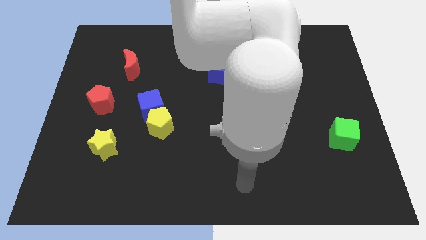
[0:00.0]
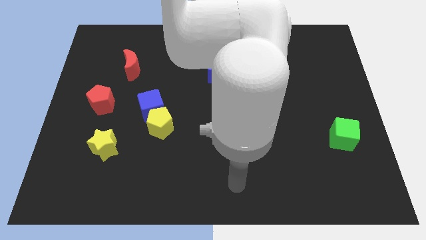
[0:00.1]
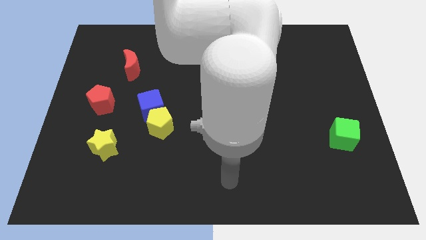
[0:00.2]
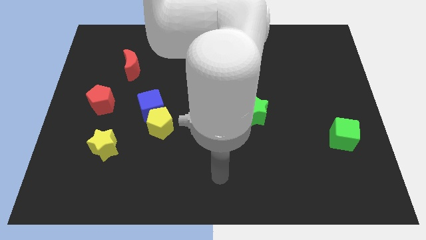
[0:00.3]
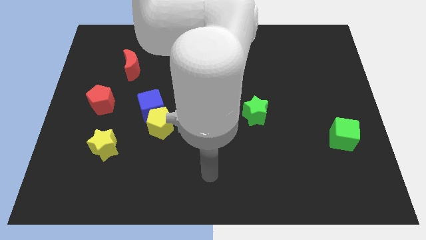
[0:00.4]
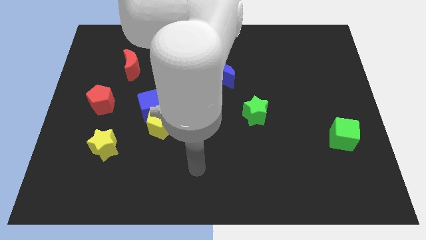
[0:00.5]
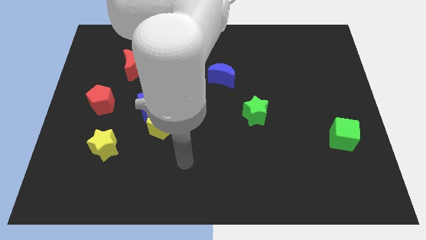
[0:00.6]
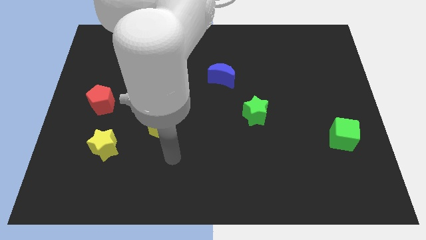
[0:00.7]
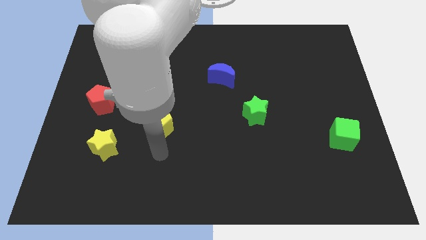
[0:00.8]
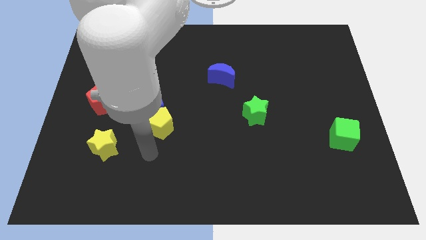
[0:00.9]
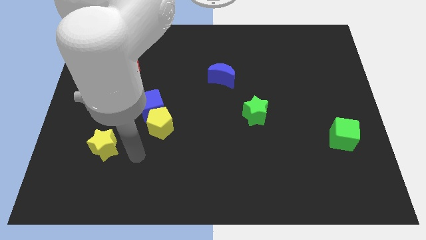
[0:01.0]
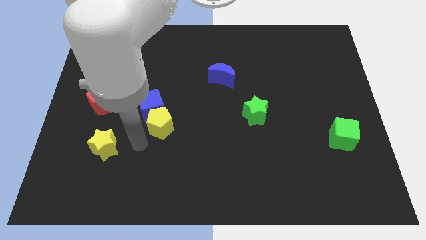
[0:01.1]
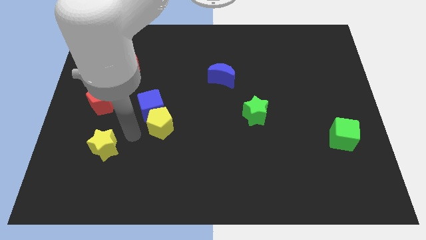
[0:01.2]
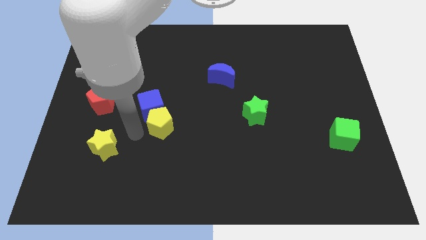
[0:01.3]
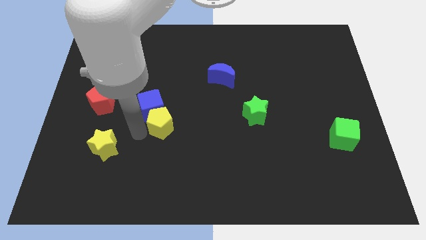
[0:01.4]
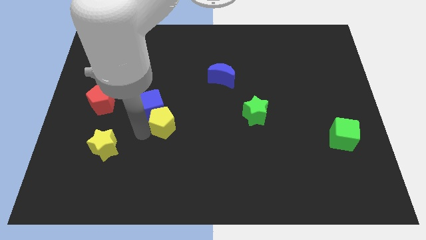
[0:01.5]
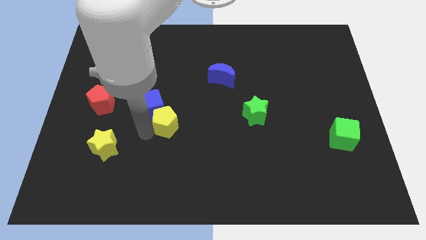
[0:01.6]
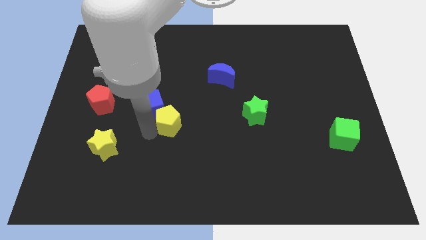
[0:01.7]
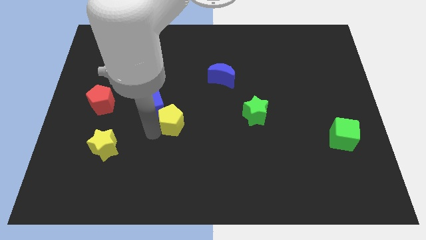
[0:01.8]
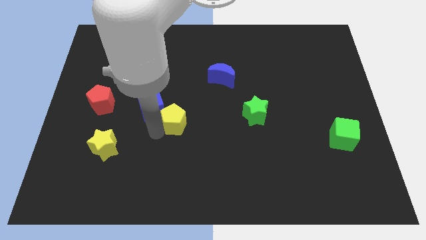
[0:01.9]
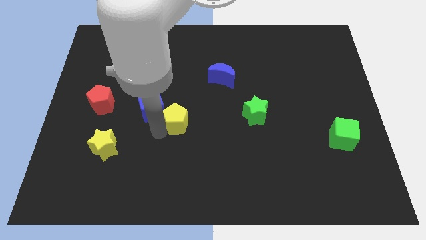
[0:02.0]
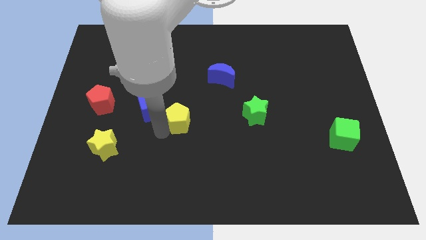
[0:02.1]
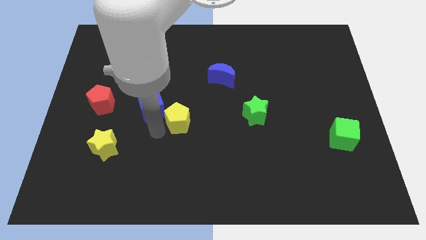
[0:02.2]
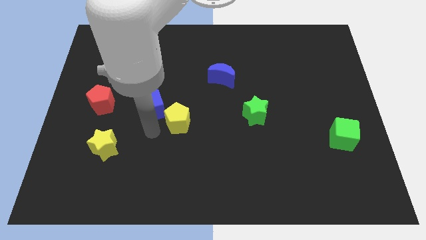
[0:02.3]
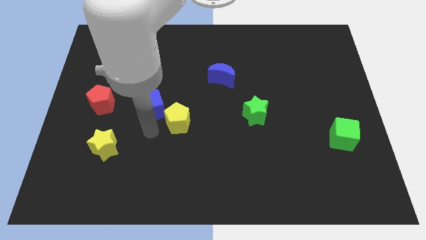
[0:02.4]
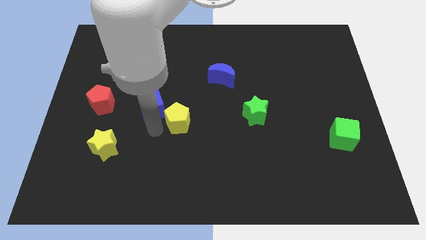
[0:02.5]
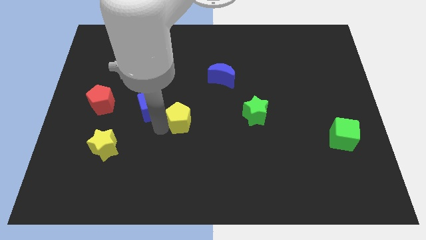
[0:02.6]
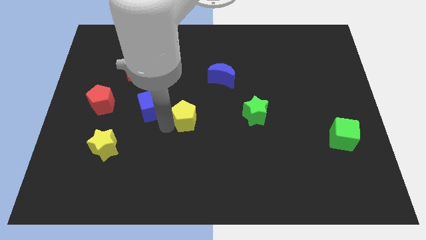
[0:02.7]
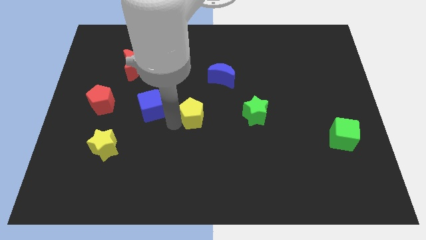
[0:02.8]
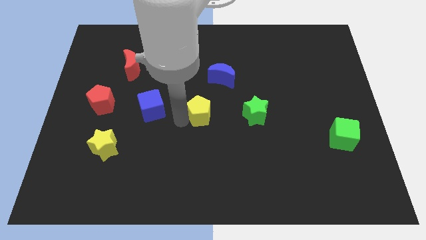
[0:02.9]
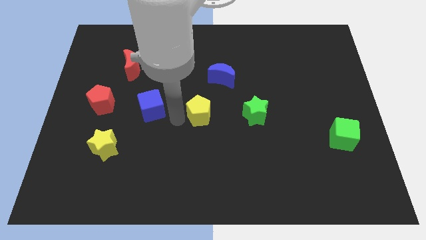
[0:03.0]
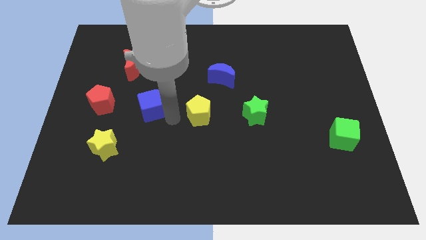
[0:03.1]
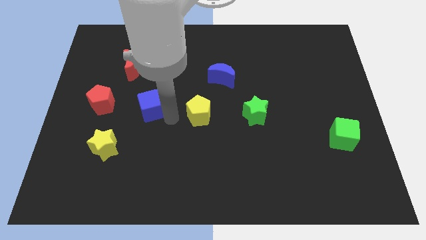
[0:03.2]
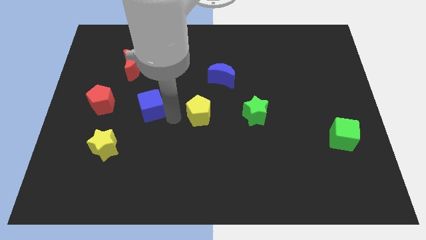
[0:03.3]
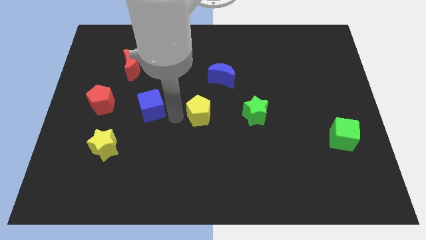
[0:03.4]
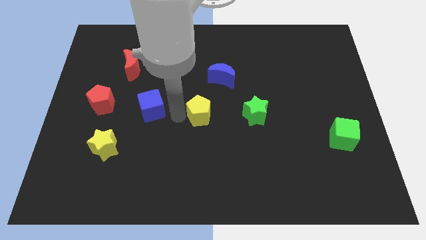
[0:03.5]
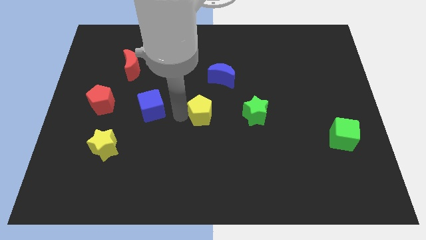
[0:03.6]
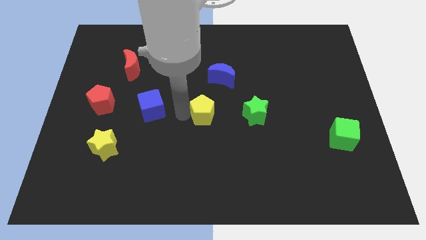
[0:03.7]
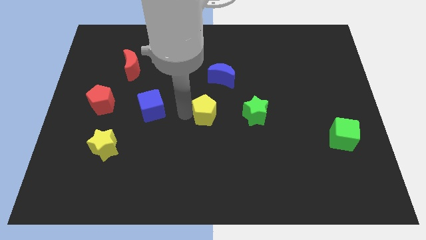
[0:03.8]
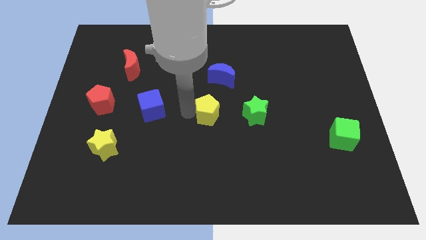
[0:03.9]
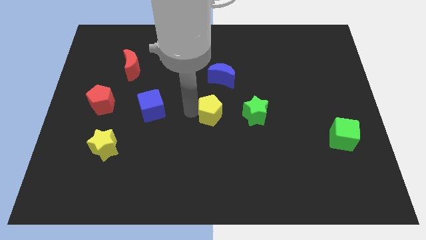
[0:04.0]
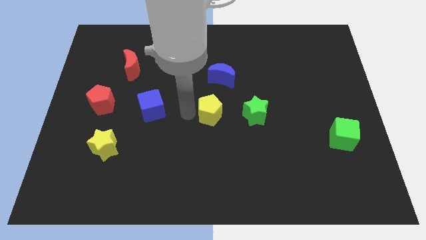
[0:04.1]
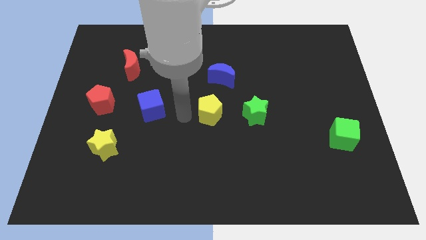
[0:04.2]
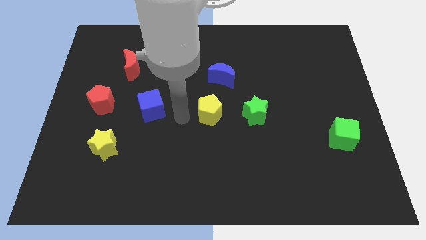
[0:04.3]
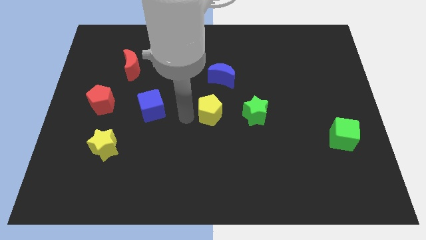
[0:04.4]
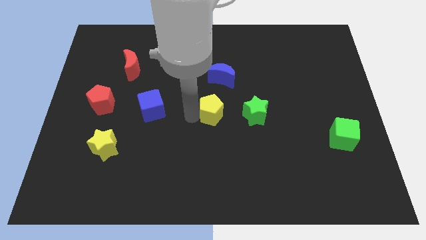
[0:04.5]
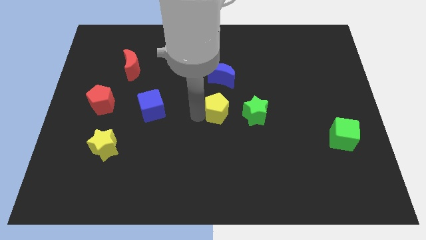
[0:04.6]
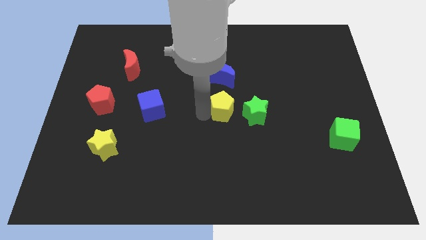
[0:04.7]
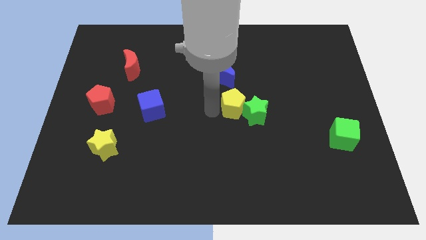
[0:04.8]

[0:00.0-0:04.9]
push the yellow pentagon to the green star

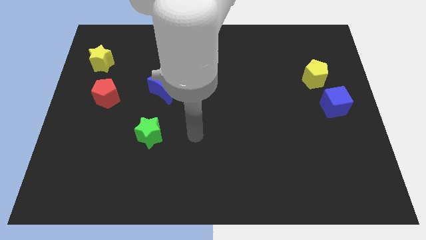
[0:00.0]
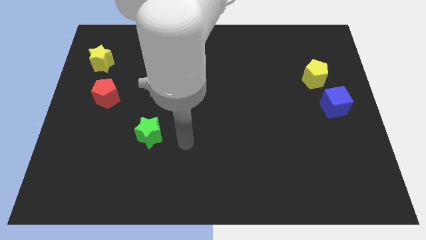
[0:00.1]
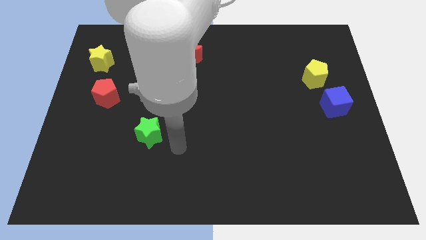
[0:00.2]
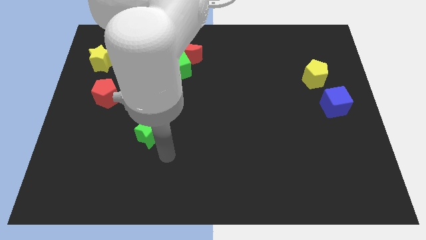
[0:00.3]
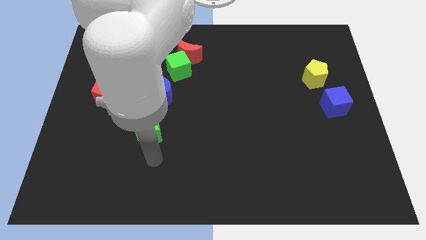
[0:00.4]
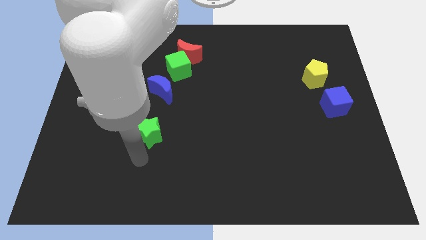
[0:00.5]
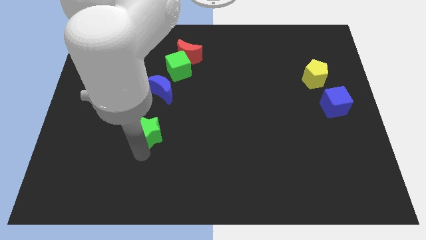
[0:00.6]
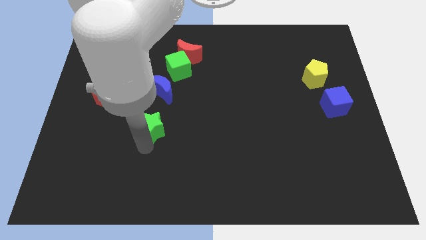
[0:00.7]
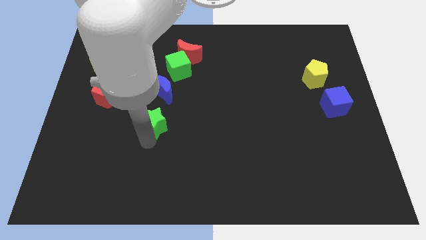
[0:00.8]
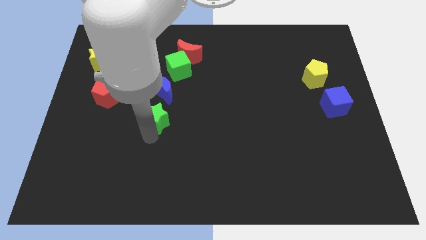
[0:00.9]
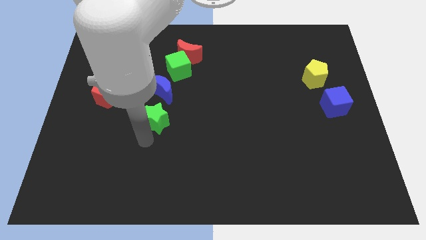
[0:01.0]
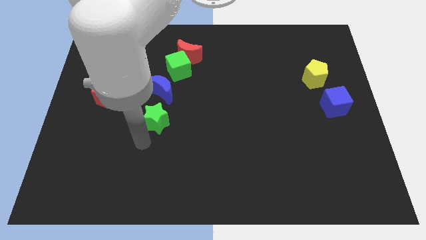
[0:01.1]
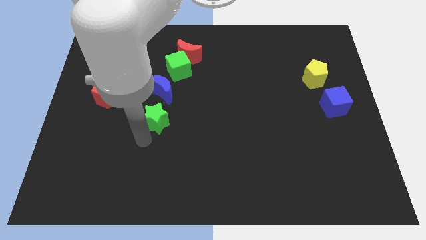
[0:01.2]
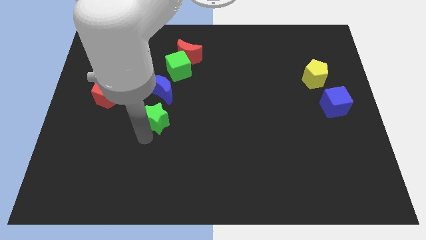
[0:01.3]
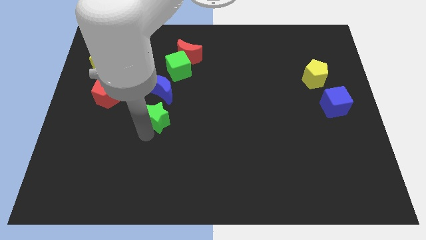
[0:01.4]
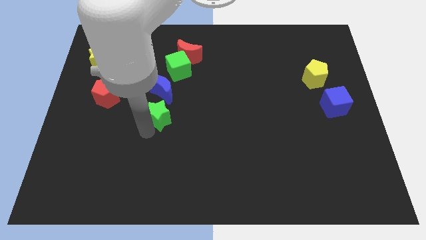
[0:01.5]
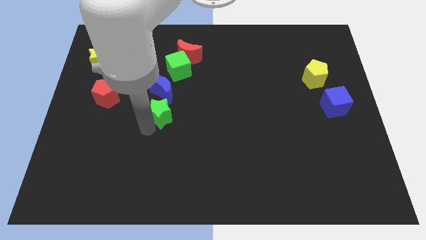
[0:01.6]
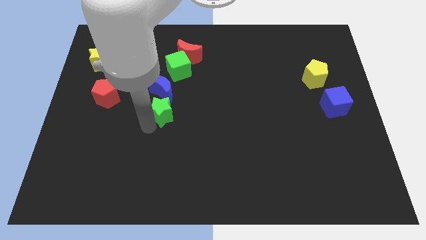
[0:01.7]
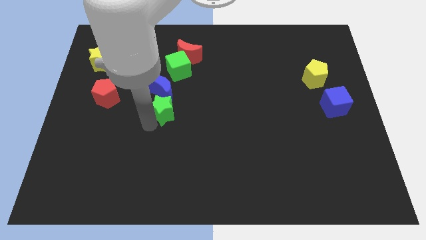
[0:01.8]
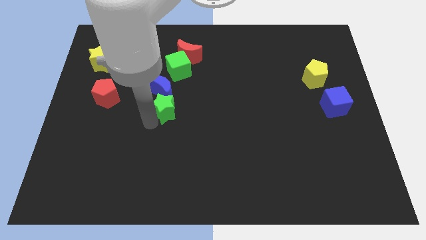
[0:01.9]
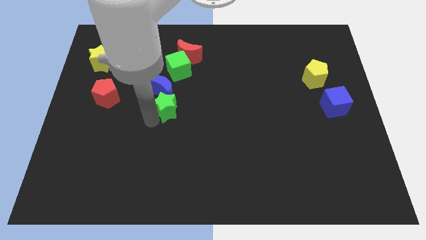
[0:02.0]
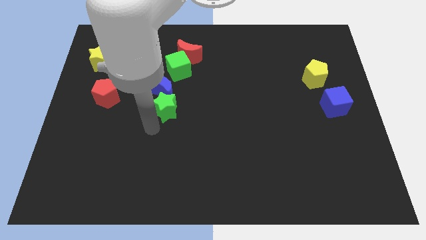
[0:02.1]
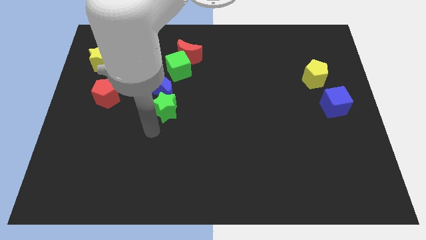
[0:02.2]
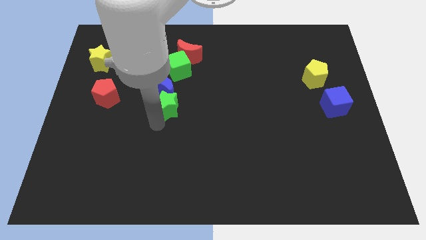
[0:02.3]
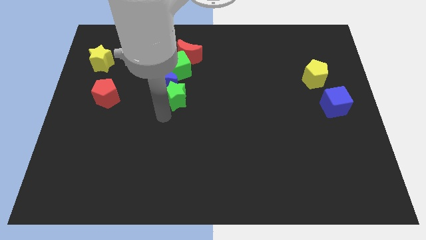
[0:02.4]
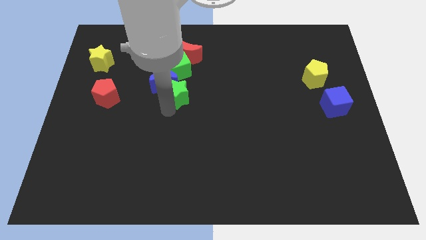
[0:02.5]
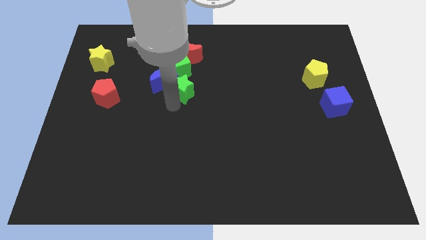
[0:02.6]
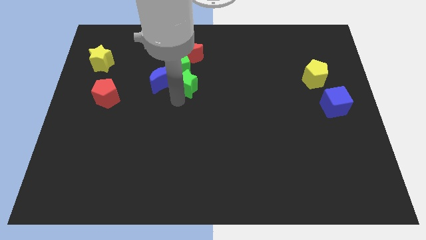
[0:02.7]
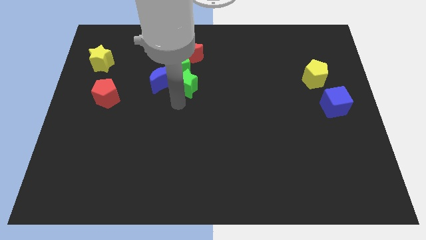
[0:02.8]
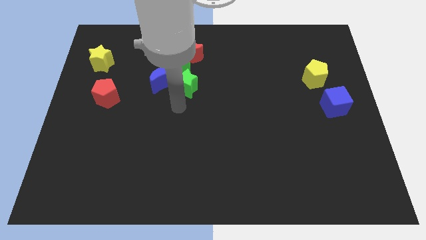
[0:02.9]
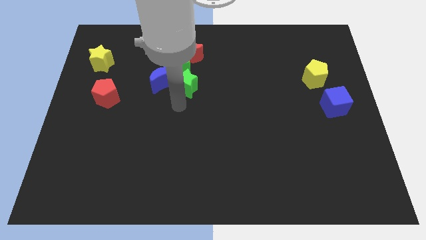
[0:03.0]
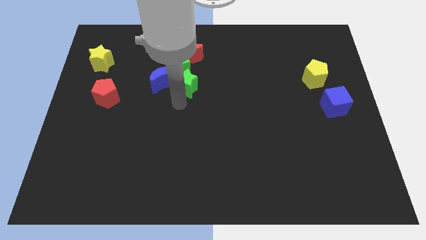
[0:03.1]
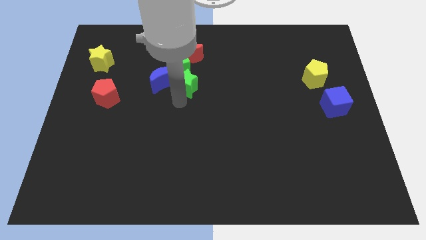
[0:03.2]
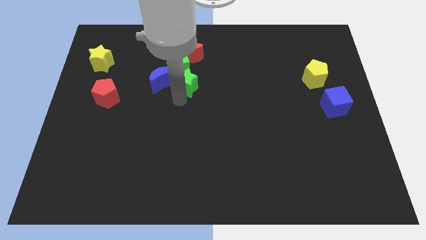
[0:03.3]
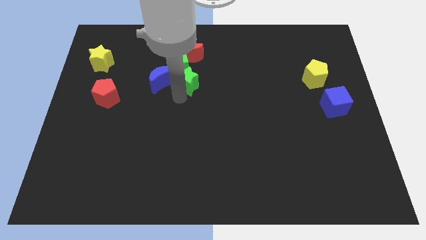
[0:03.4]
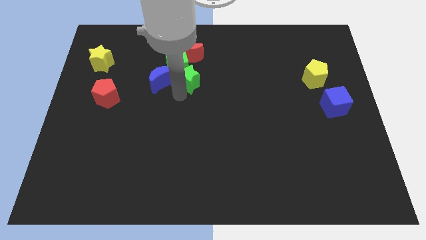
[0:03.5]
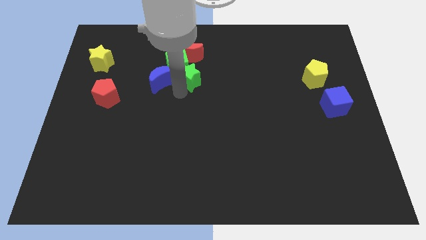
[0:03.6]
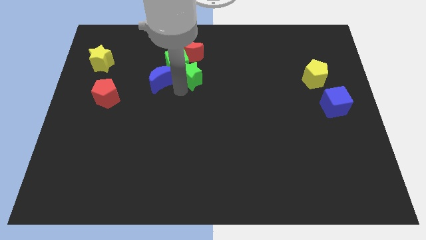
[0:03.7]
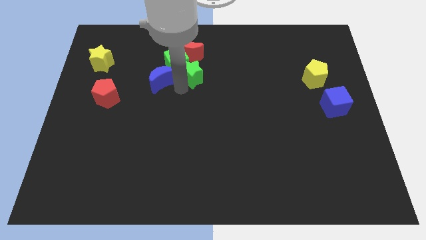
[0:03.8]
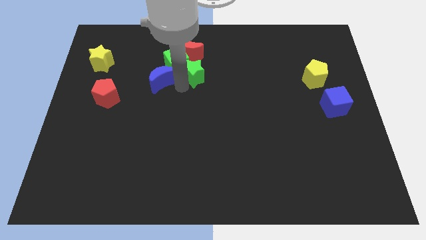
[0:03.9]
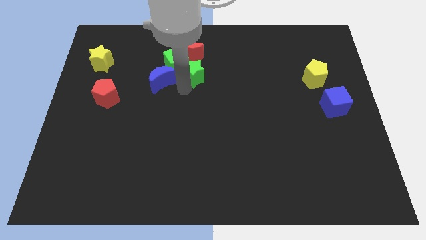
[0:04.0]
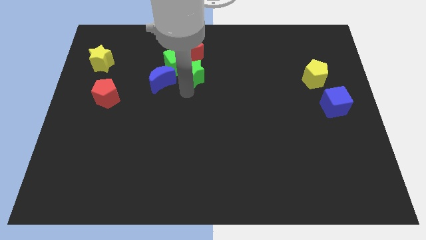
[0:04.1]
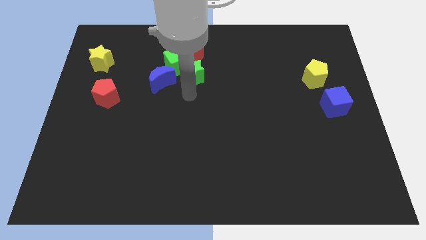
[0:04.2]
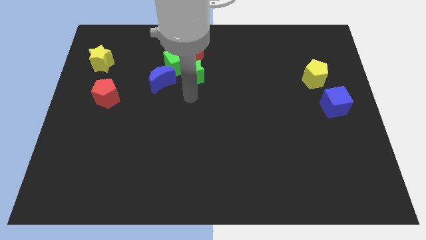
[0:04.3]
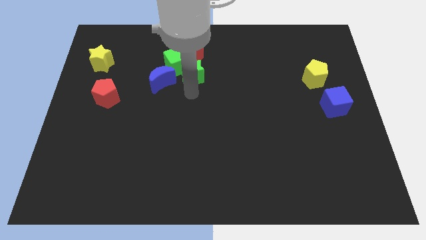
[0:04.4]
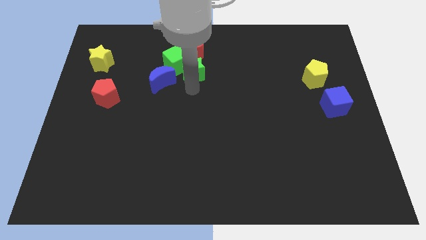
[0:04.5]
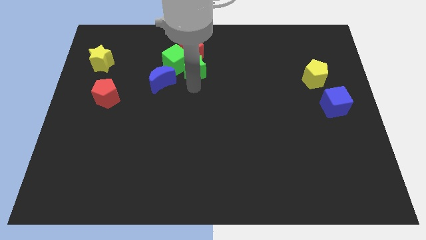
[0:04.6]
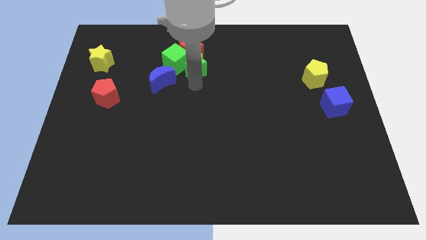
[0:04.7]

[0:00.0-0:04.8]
move the green star towards the red moon
